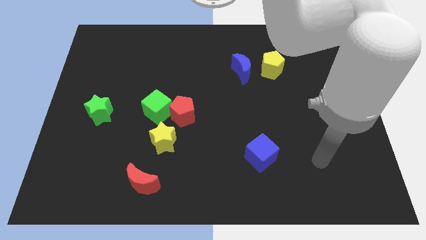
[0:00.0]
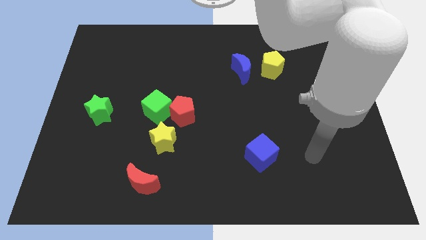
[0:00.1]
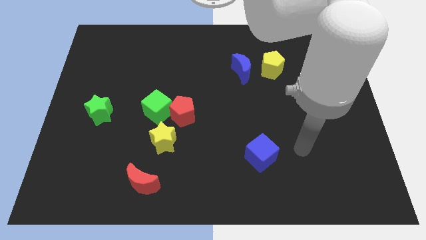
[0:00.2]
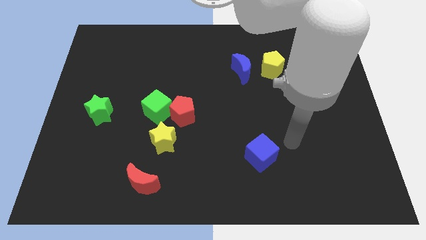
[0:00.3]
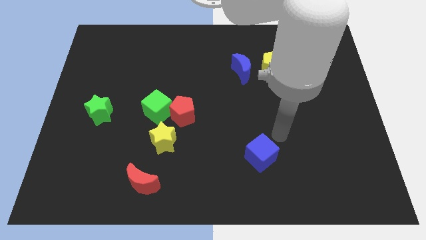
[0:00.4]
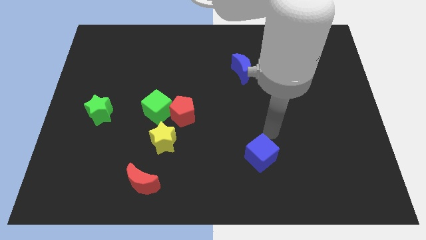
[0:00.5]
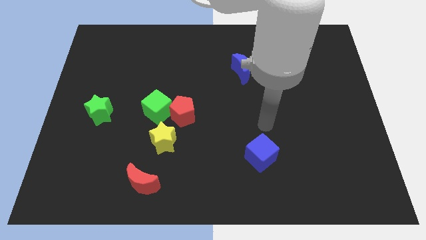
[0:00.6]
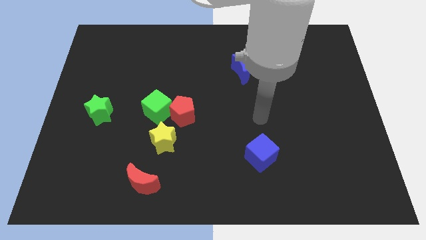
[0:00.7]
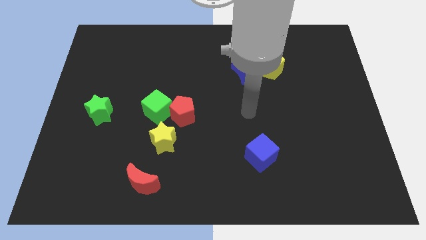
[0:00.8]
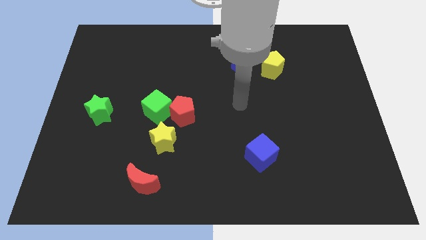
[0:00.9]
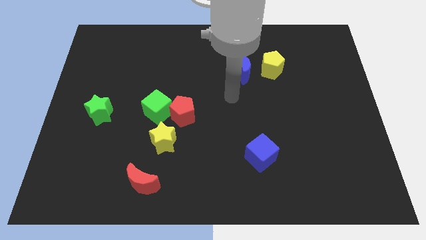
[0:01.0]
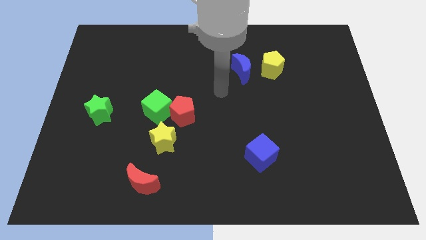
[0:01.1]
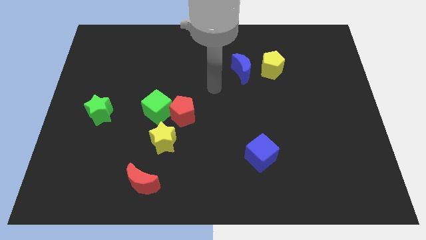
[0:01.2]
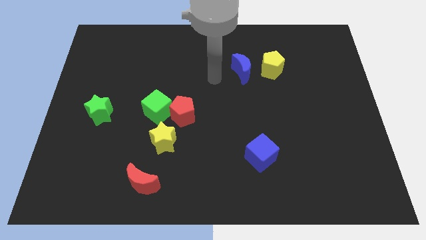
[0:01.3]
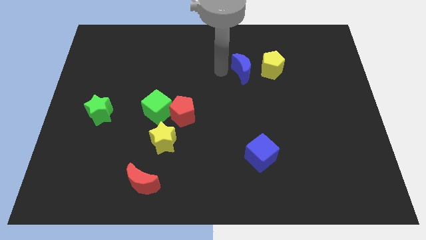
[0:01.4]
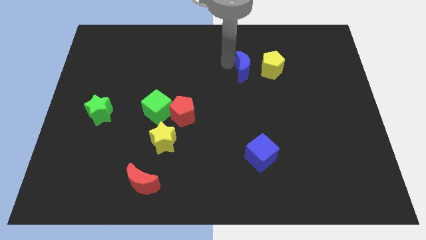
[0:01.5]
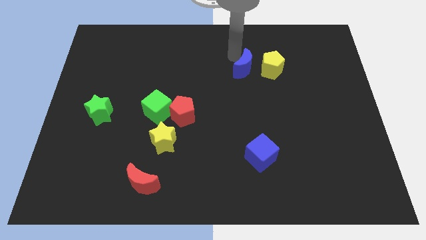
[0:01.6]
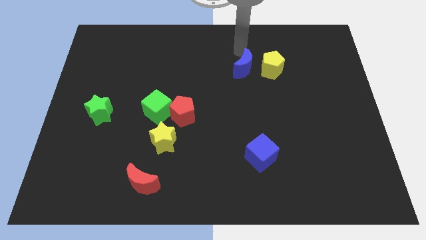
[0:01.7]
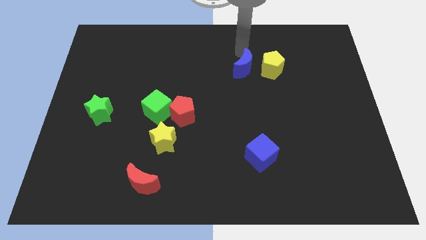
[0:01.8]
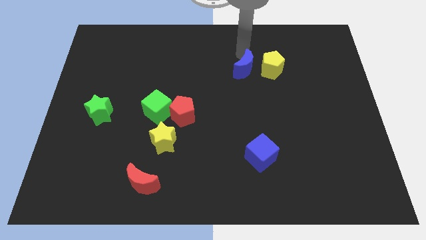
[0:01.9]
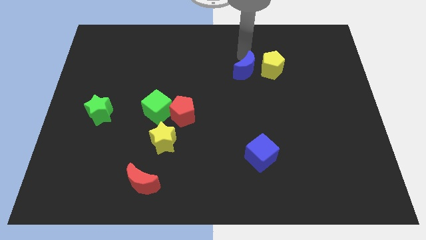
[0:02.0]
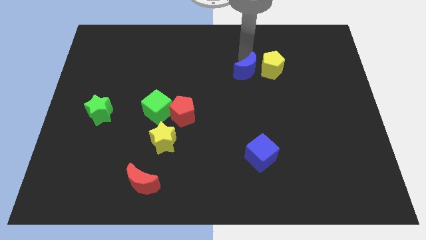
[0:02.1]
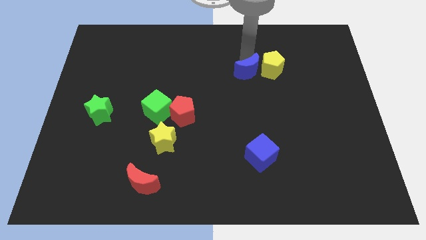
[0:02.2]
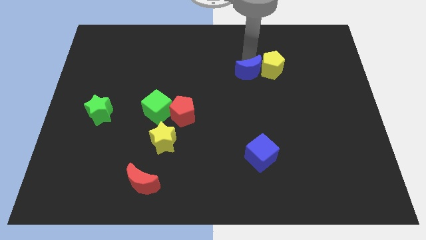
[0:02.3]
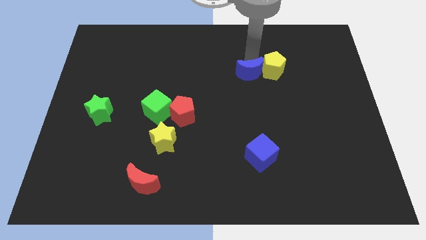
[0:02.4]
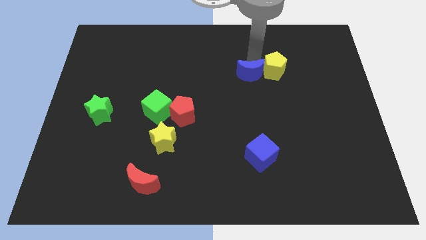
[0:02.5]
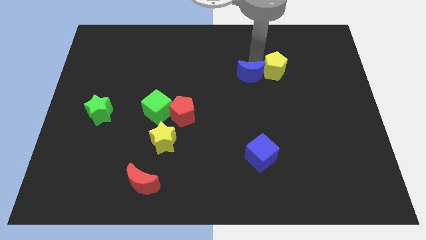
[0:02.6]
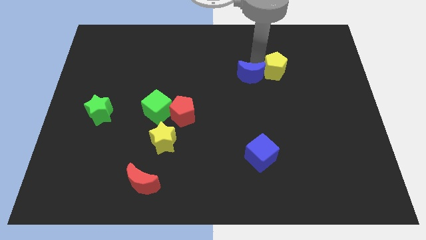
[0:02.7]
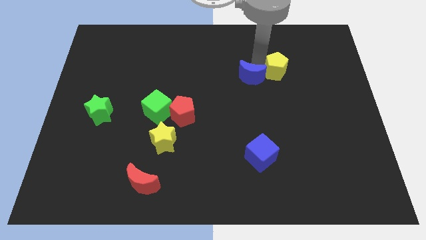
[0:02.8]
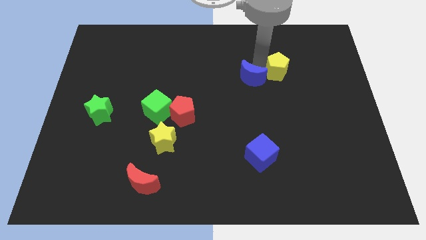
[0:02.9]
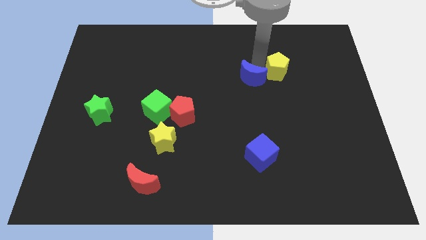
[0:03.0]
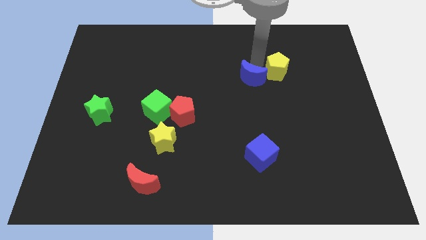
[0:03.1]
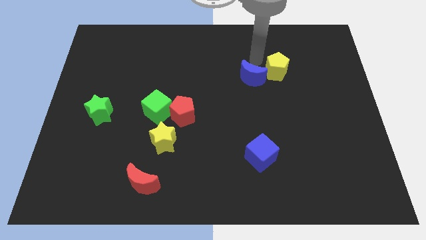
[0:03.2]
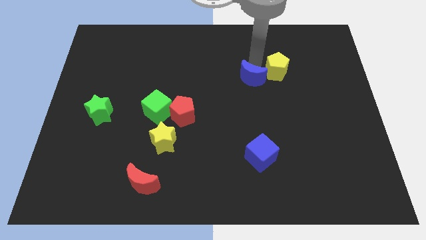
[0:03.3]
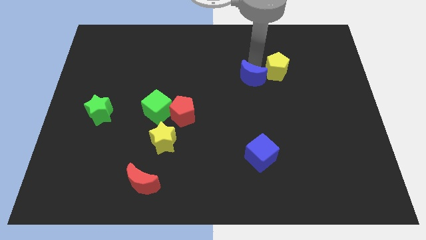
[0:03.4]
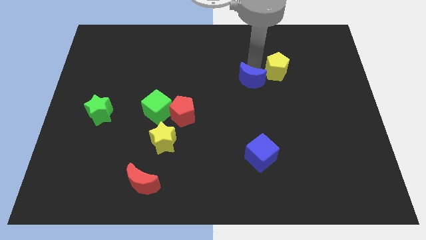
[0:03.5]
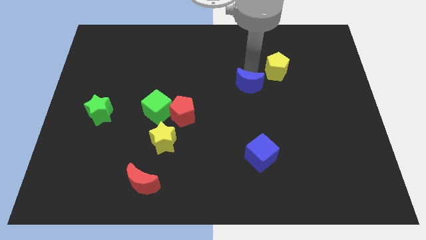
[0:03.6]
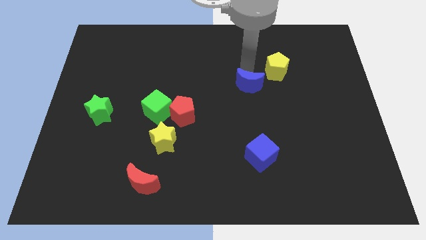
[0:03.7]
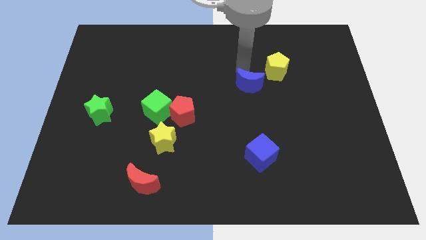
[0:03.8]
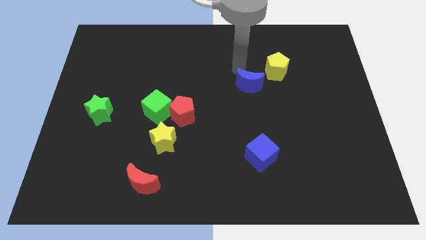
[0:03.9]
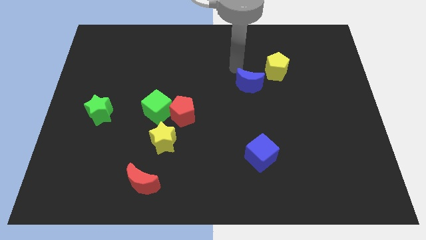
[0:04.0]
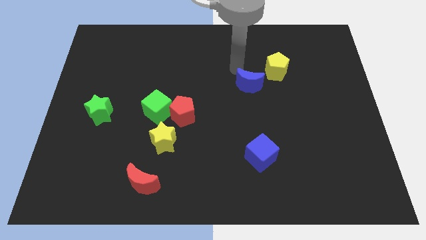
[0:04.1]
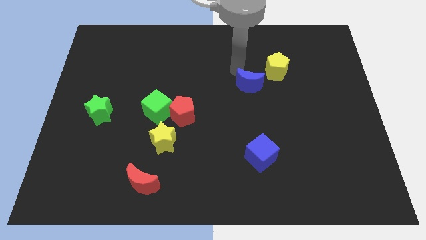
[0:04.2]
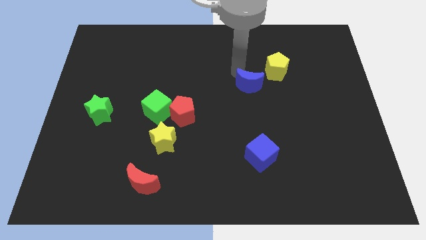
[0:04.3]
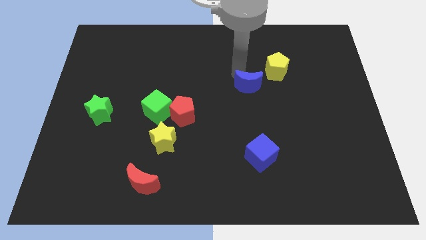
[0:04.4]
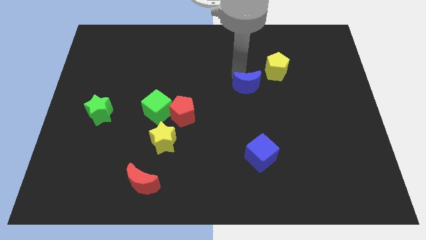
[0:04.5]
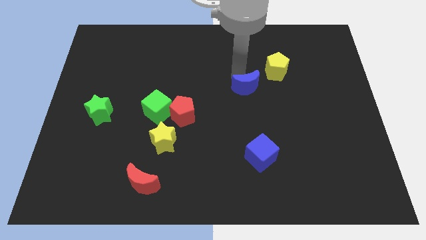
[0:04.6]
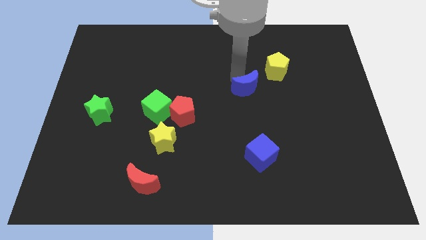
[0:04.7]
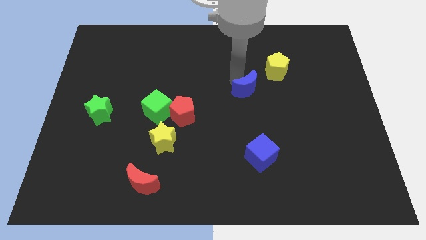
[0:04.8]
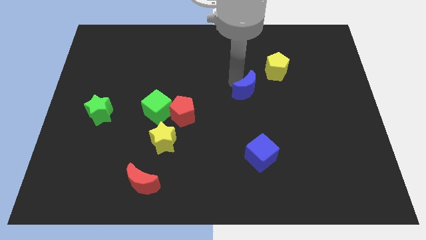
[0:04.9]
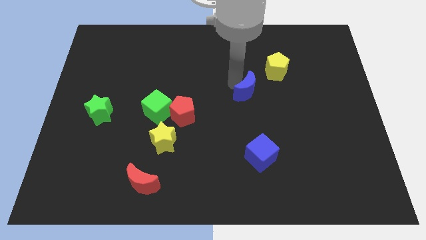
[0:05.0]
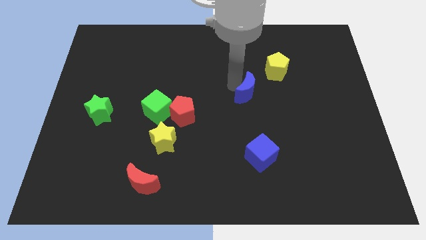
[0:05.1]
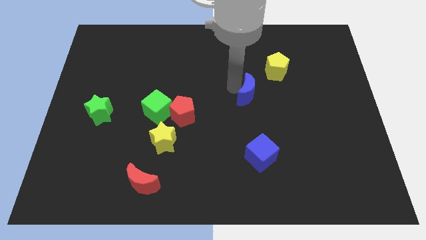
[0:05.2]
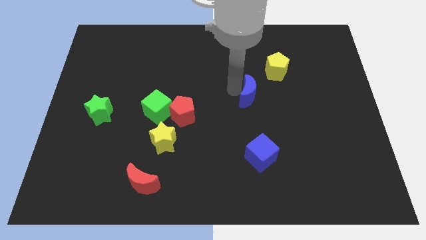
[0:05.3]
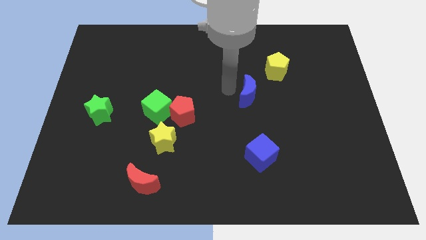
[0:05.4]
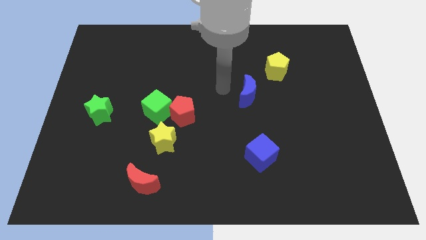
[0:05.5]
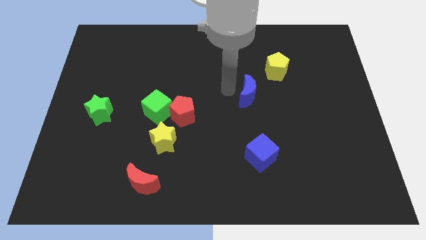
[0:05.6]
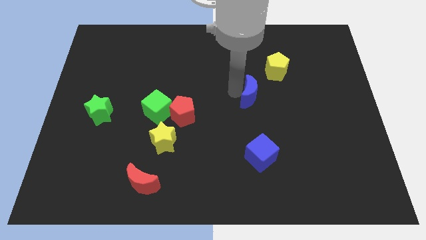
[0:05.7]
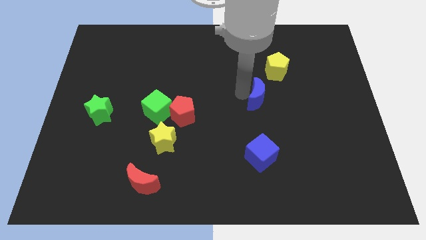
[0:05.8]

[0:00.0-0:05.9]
slightly push the blue moon down and right

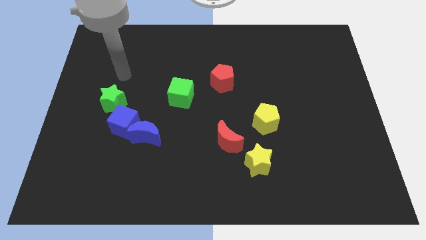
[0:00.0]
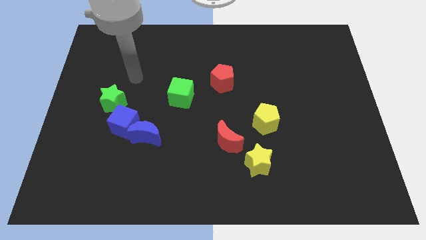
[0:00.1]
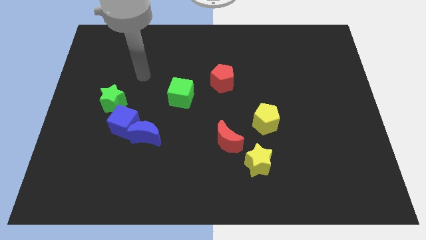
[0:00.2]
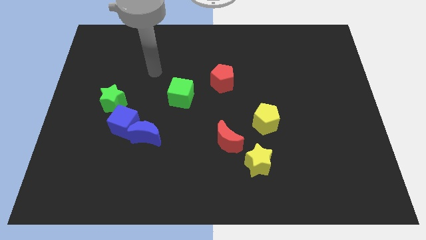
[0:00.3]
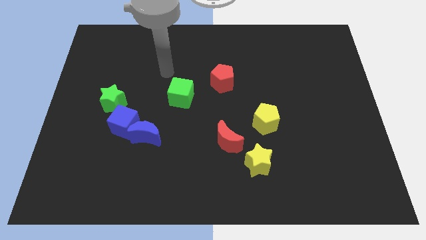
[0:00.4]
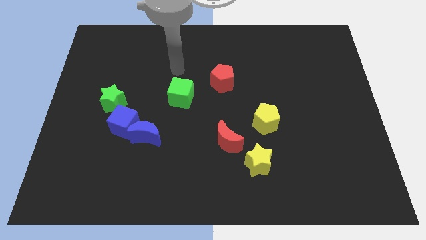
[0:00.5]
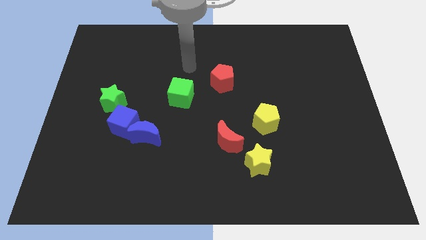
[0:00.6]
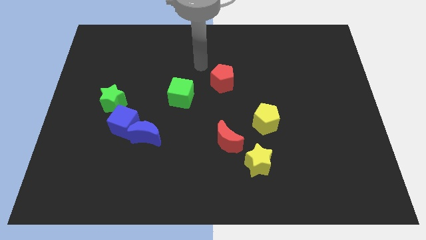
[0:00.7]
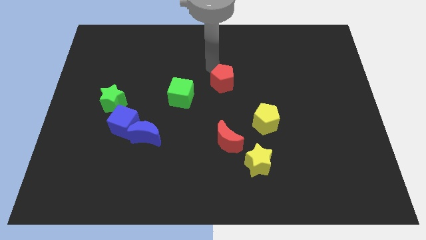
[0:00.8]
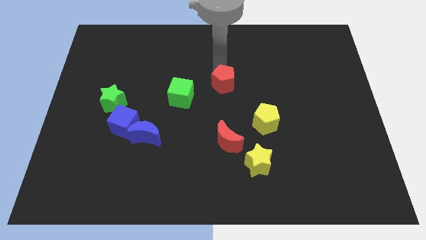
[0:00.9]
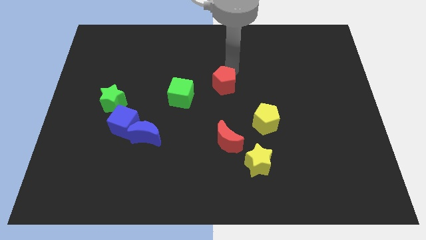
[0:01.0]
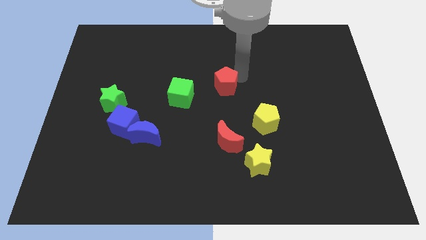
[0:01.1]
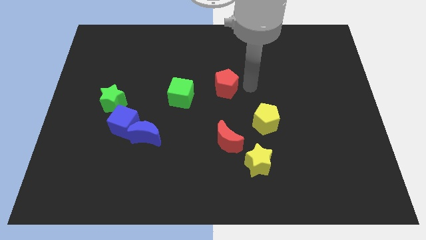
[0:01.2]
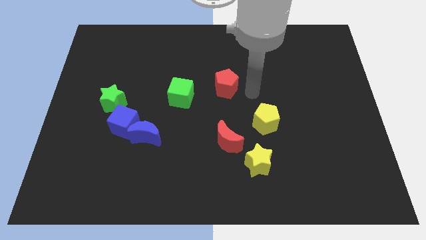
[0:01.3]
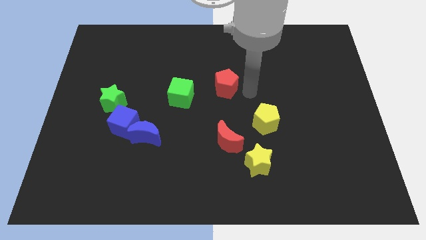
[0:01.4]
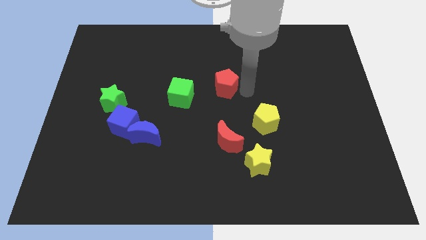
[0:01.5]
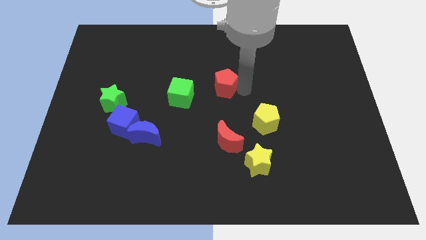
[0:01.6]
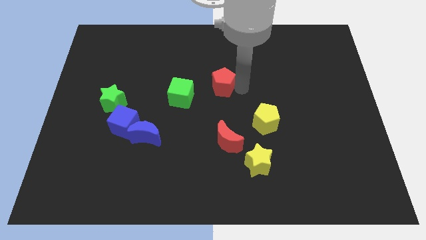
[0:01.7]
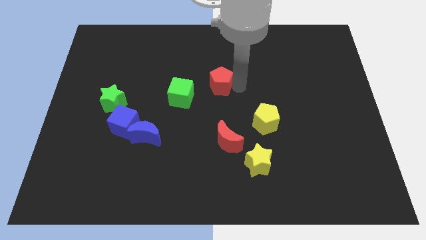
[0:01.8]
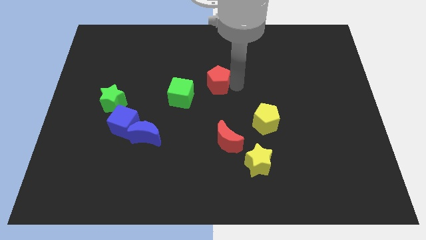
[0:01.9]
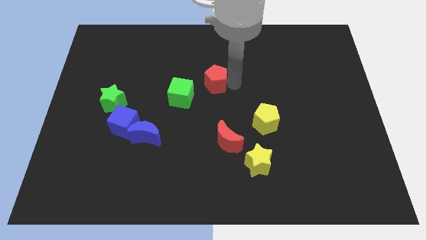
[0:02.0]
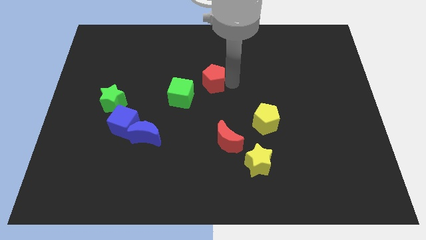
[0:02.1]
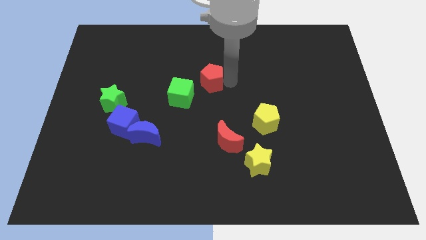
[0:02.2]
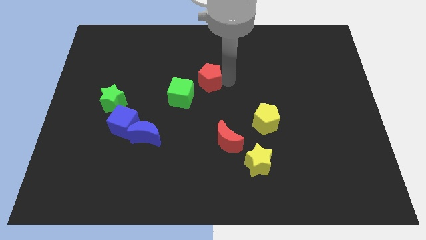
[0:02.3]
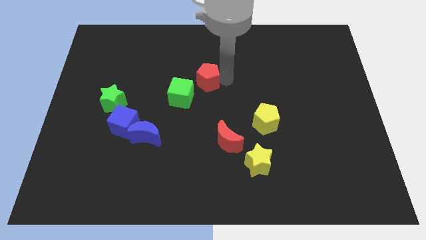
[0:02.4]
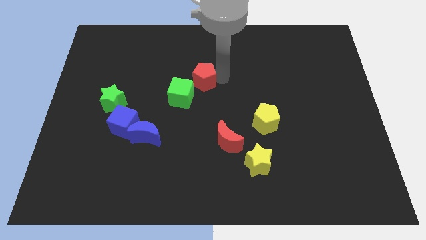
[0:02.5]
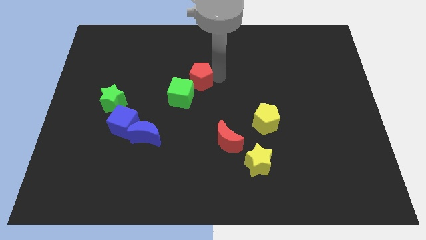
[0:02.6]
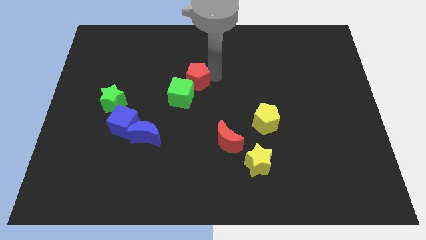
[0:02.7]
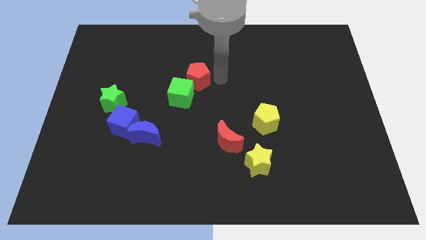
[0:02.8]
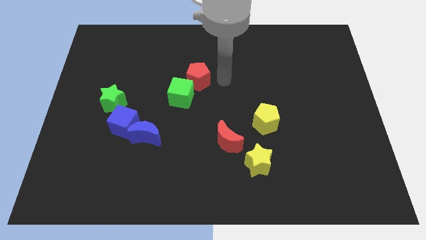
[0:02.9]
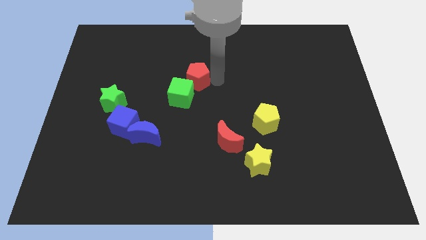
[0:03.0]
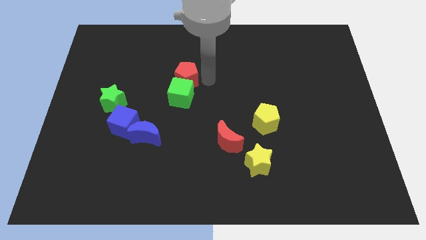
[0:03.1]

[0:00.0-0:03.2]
slightly push the red pentagon to the left
